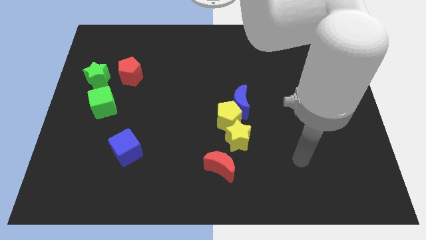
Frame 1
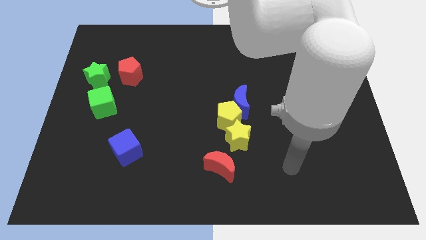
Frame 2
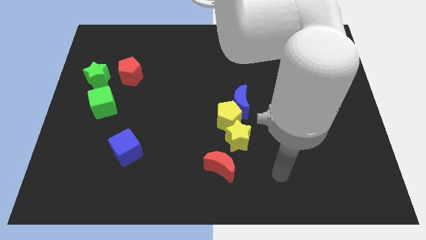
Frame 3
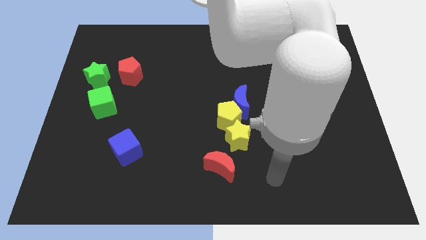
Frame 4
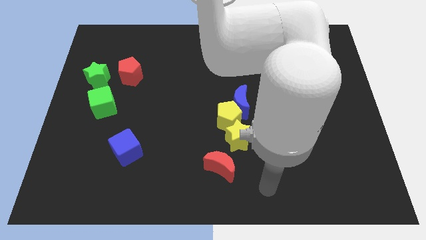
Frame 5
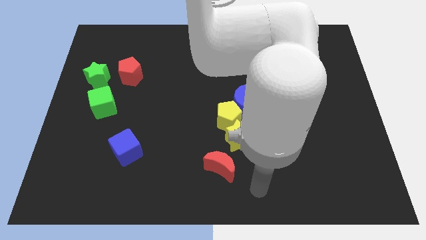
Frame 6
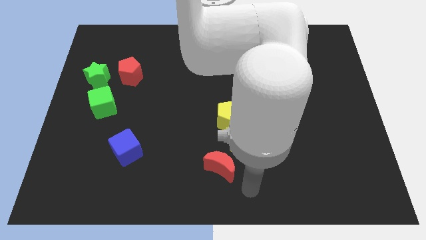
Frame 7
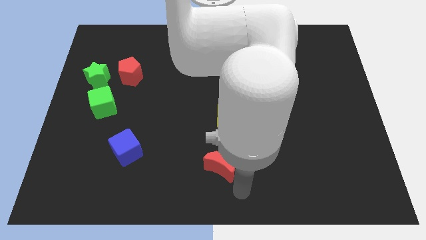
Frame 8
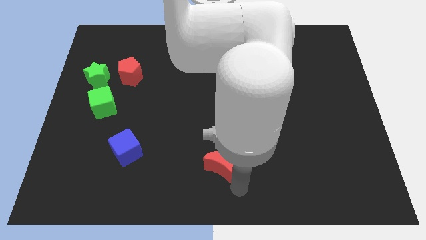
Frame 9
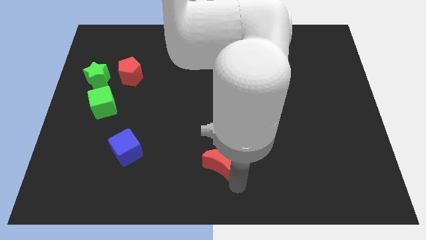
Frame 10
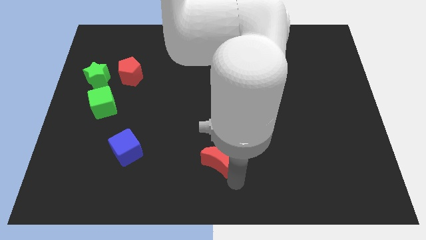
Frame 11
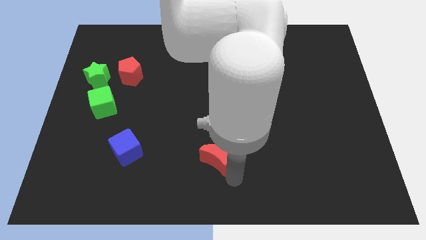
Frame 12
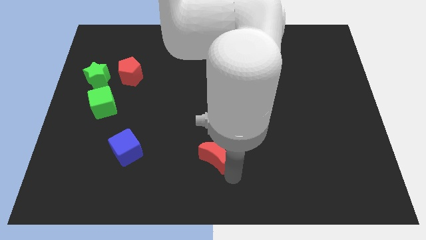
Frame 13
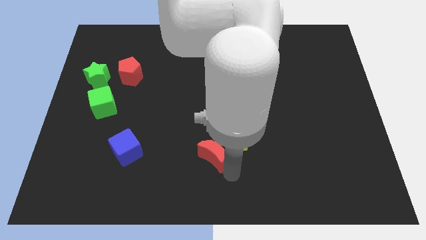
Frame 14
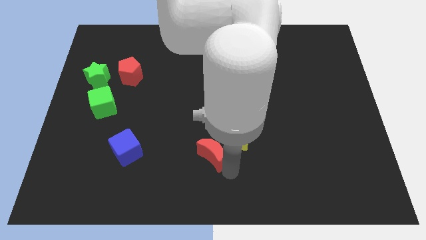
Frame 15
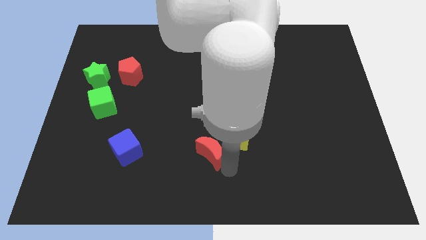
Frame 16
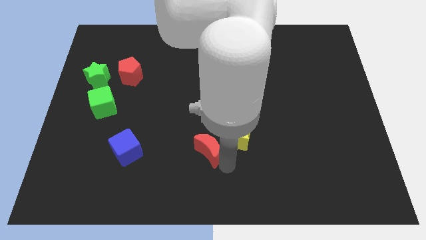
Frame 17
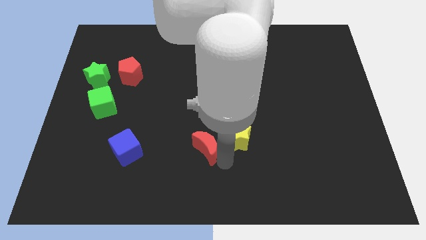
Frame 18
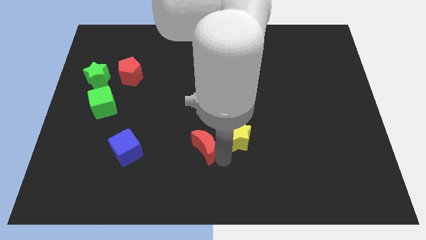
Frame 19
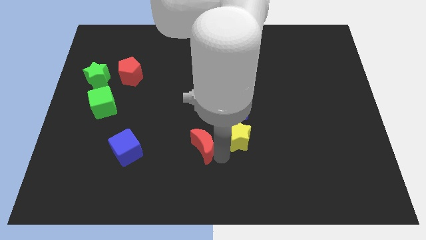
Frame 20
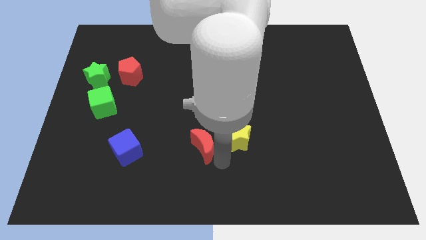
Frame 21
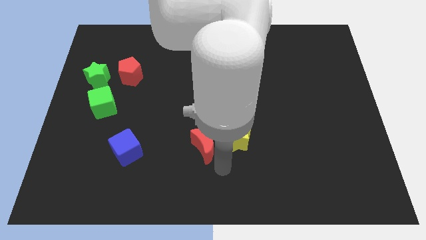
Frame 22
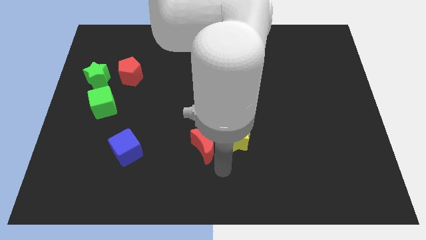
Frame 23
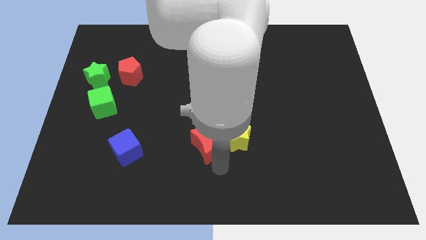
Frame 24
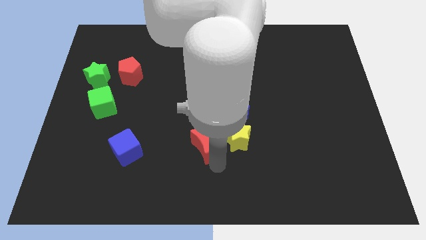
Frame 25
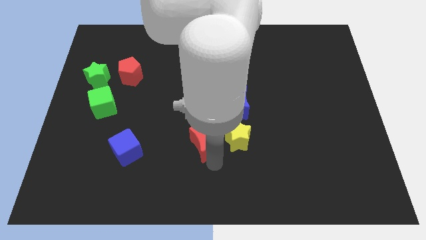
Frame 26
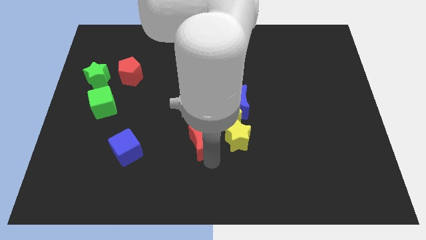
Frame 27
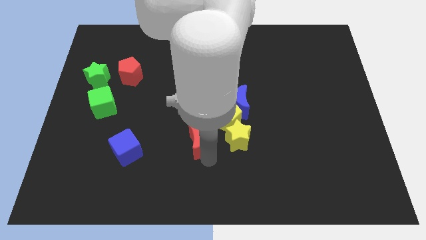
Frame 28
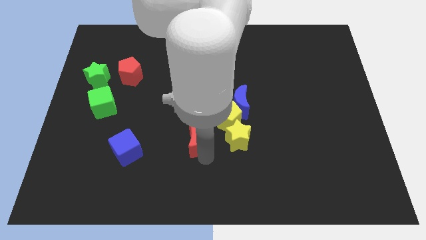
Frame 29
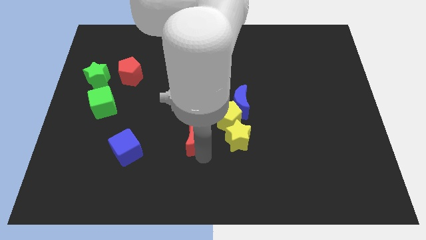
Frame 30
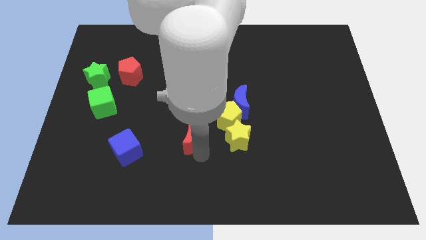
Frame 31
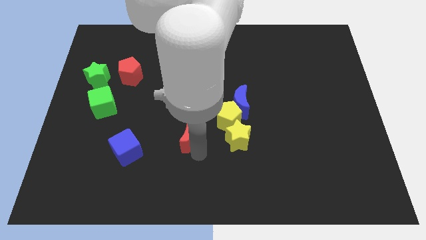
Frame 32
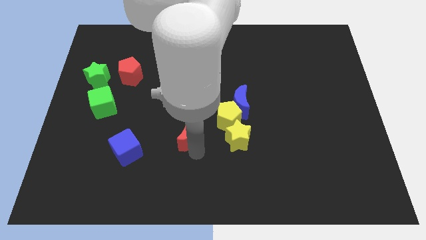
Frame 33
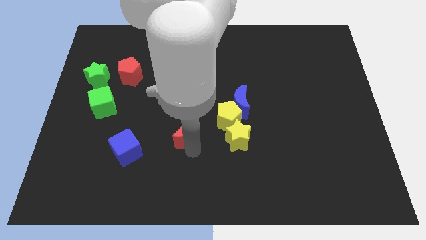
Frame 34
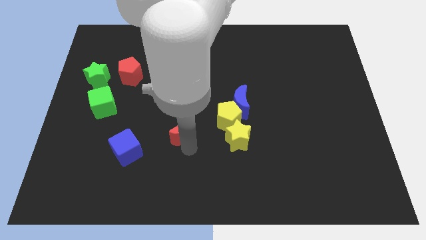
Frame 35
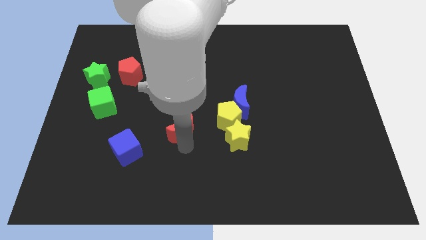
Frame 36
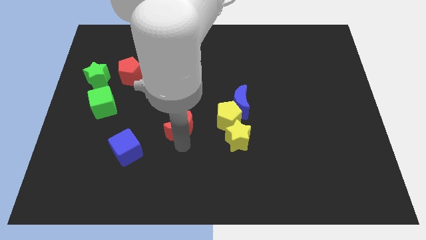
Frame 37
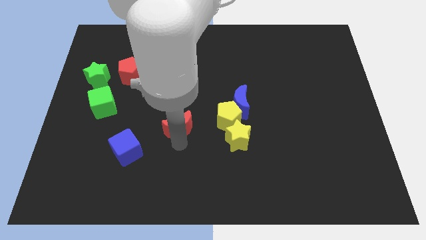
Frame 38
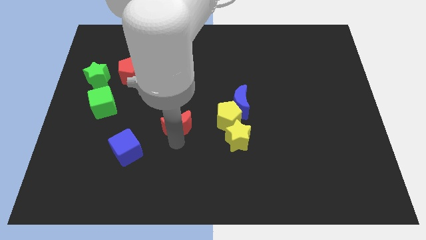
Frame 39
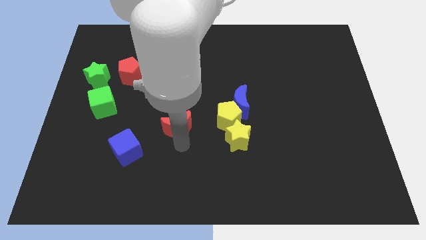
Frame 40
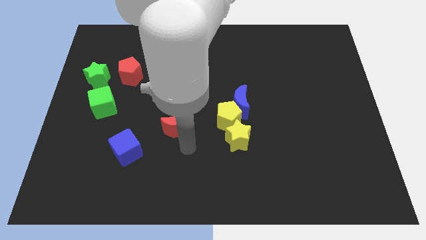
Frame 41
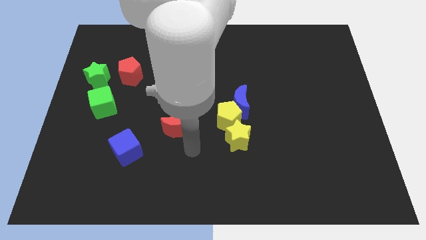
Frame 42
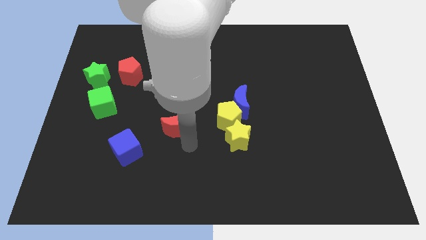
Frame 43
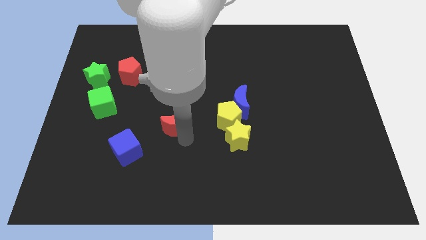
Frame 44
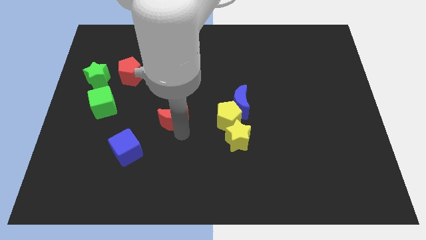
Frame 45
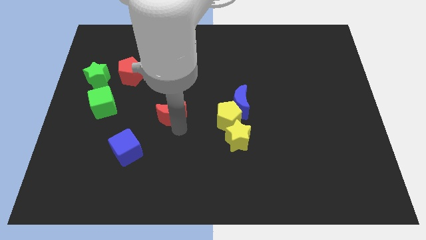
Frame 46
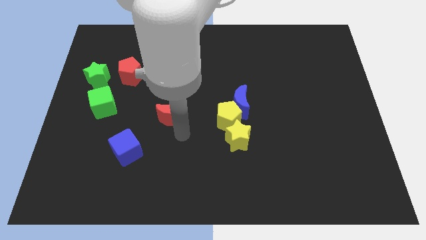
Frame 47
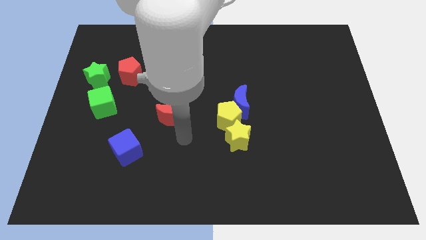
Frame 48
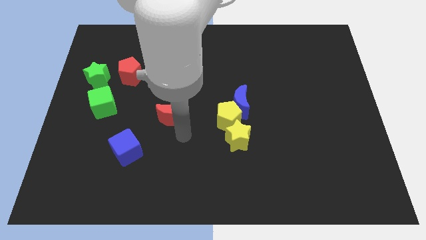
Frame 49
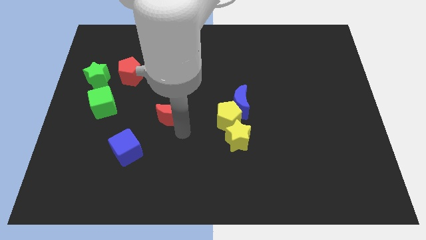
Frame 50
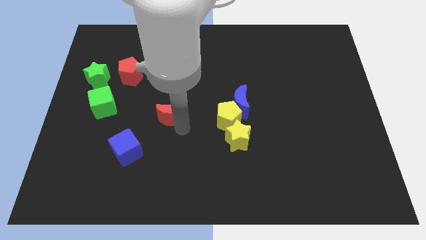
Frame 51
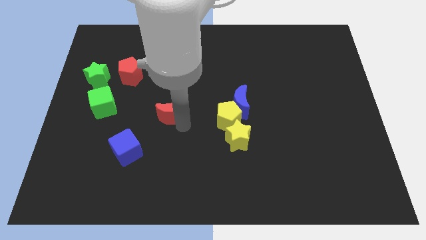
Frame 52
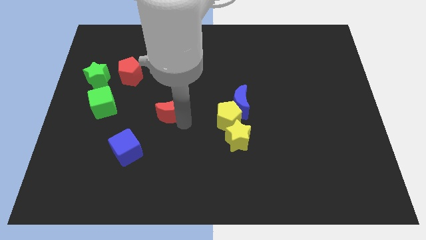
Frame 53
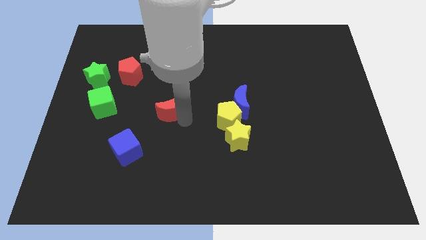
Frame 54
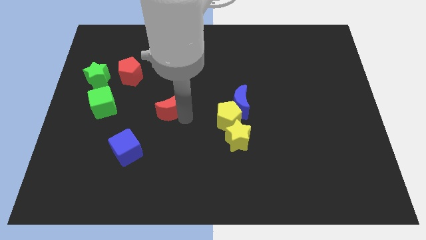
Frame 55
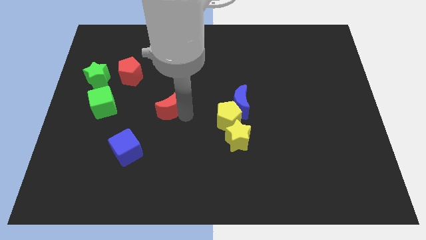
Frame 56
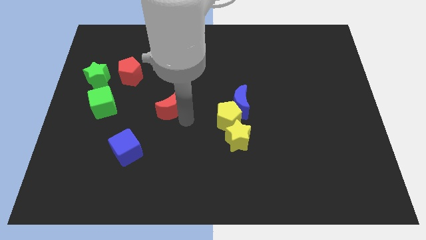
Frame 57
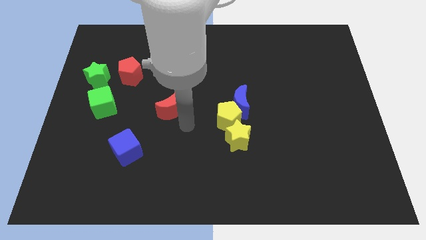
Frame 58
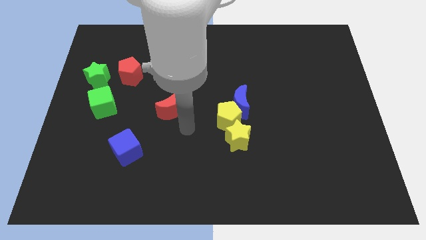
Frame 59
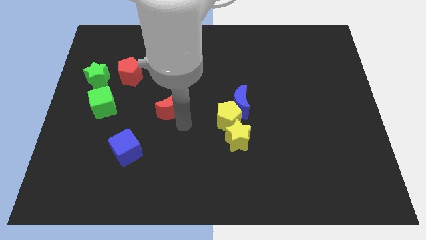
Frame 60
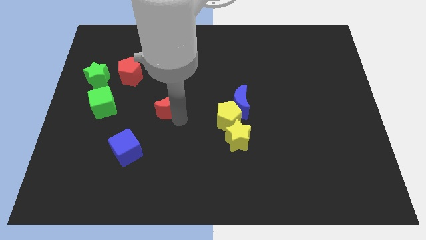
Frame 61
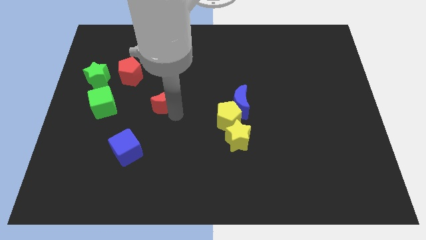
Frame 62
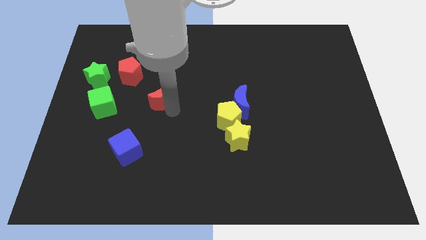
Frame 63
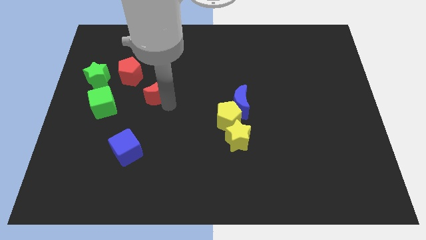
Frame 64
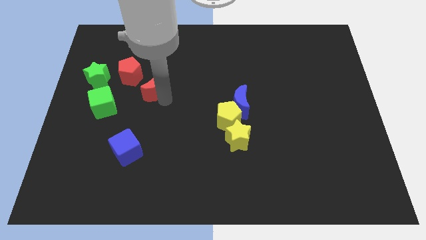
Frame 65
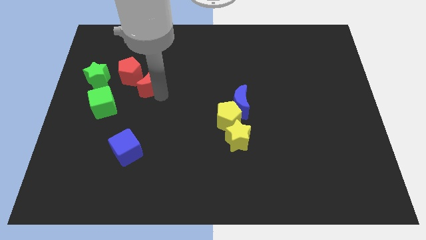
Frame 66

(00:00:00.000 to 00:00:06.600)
move the red moon to the right side of the green star

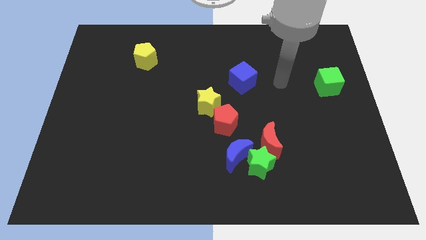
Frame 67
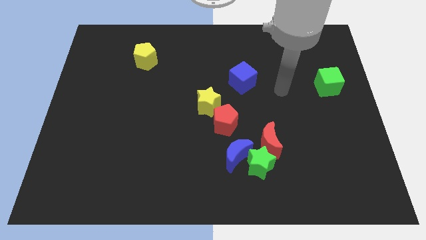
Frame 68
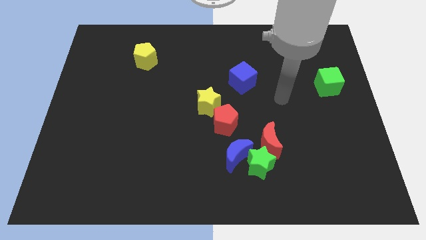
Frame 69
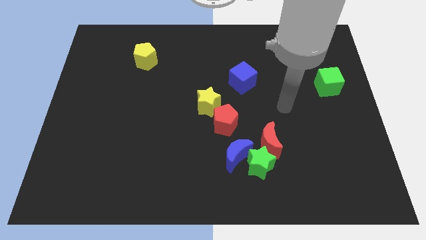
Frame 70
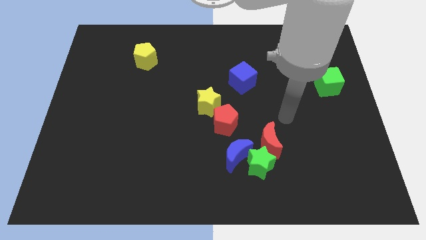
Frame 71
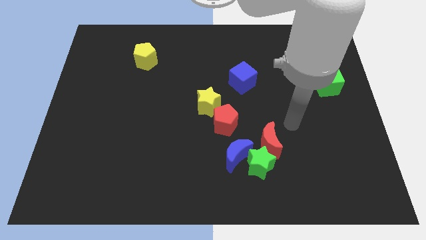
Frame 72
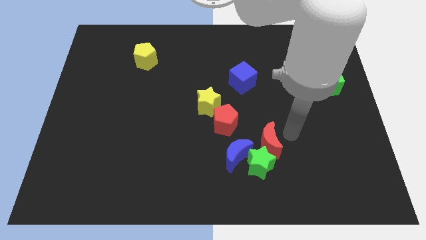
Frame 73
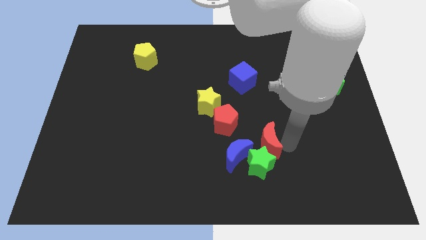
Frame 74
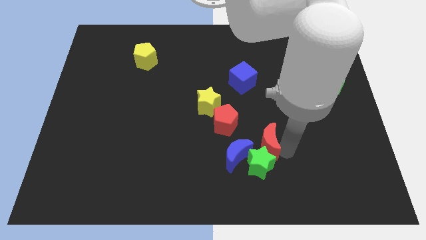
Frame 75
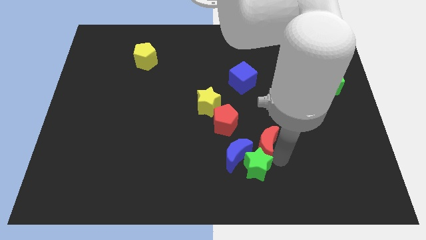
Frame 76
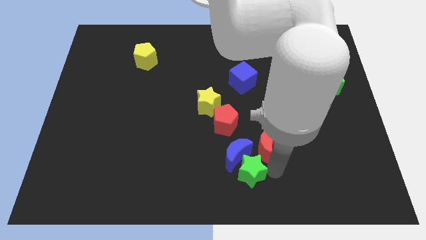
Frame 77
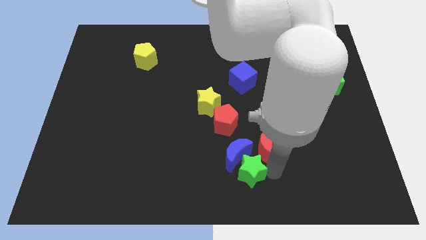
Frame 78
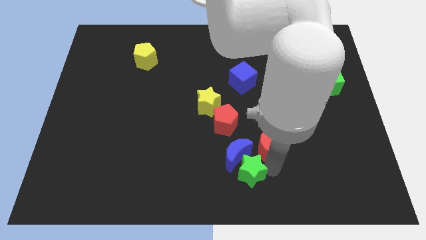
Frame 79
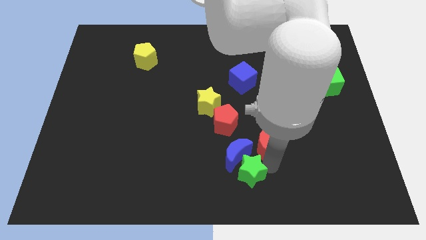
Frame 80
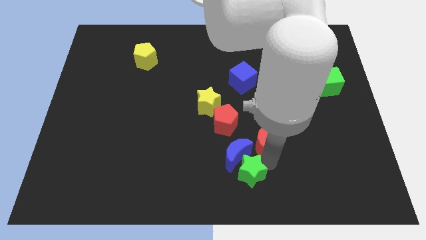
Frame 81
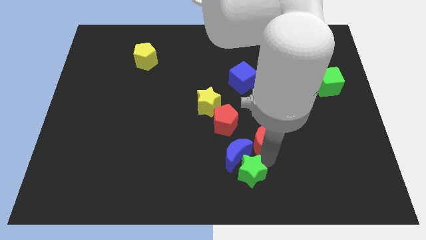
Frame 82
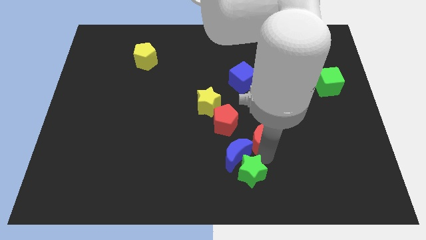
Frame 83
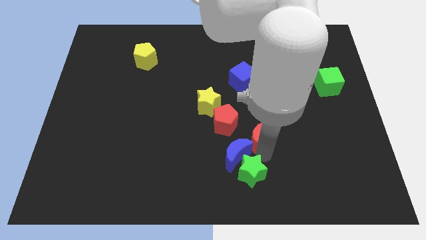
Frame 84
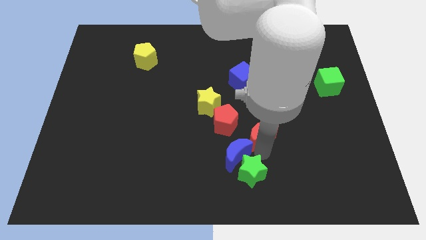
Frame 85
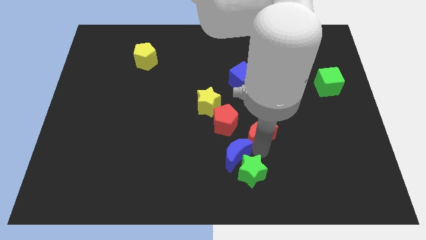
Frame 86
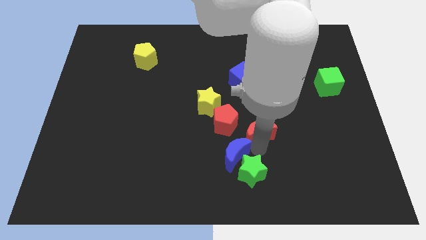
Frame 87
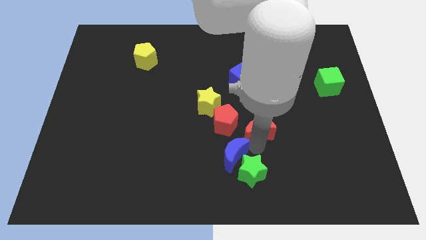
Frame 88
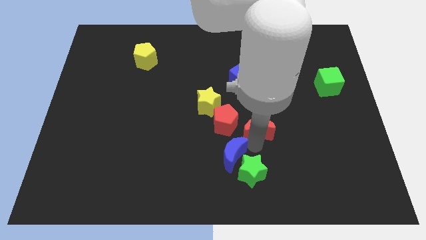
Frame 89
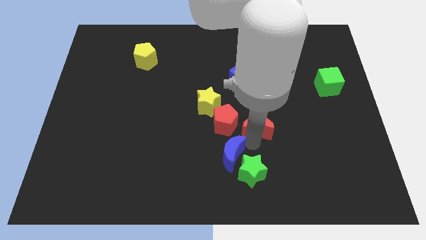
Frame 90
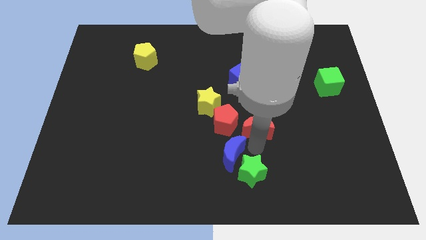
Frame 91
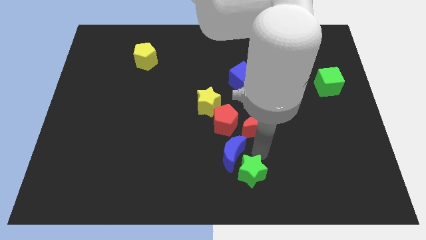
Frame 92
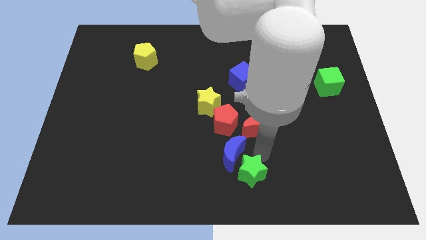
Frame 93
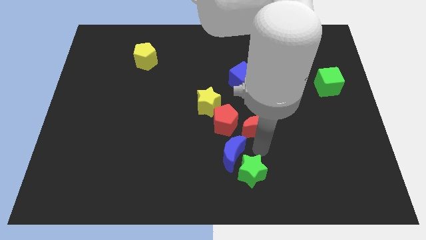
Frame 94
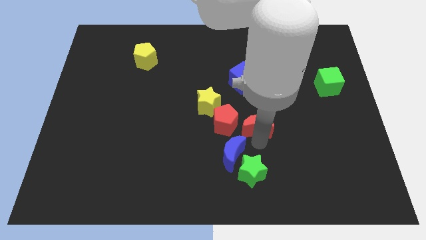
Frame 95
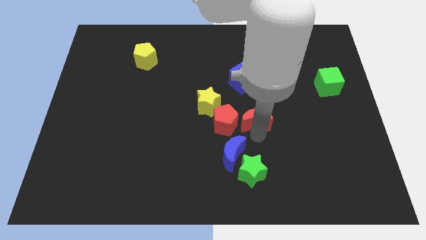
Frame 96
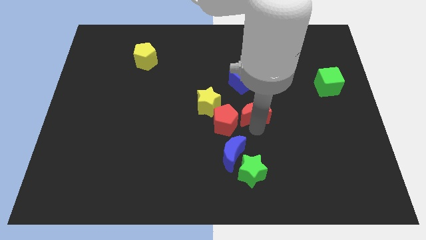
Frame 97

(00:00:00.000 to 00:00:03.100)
move the red moon to the right side of the yellow star
